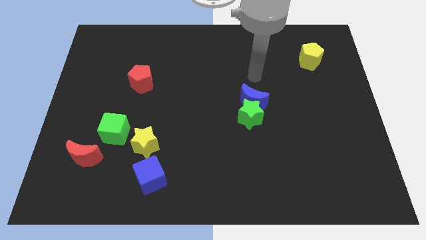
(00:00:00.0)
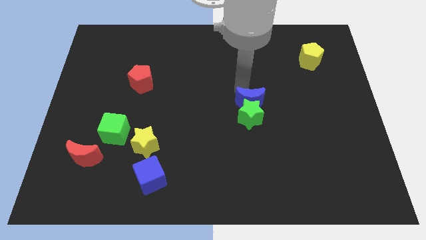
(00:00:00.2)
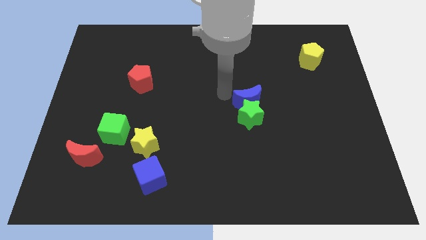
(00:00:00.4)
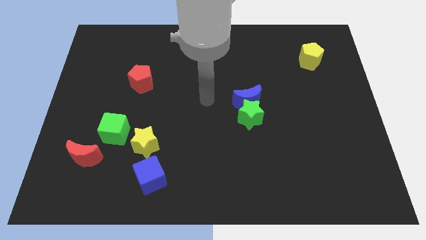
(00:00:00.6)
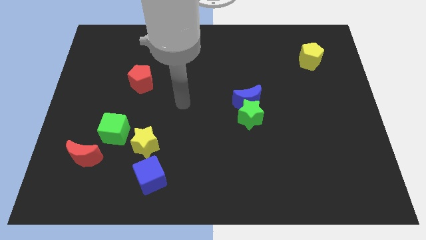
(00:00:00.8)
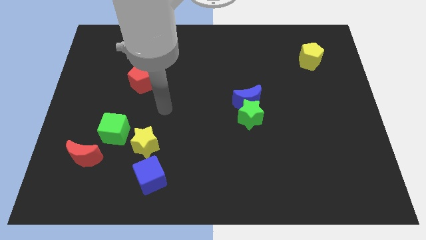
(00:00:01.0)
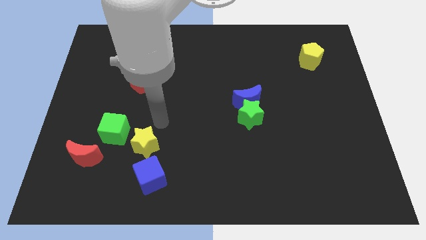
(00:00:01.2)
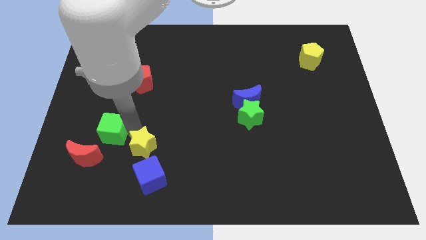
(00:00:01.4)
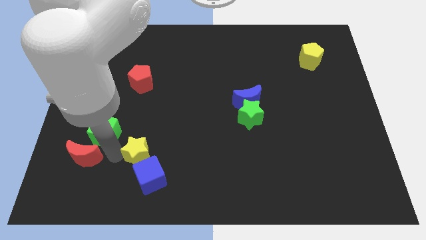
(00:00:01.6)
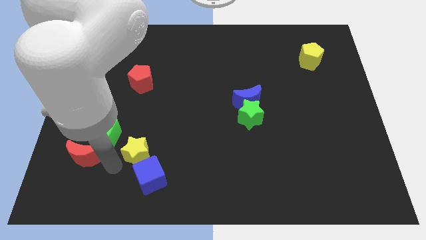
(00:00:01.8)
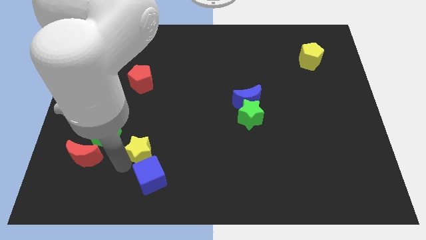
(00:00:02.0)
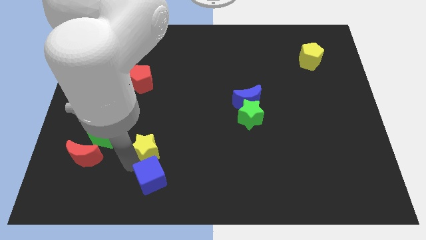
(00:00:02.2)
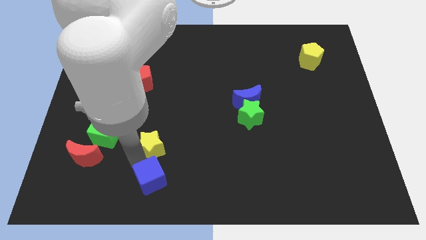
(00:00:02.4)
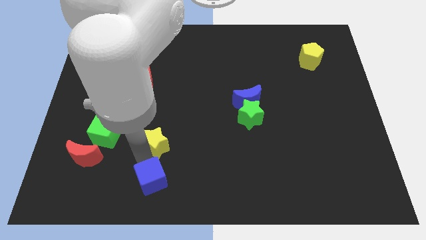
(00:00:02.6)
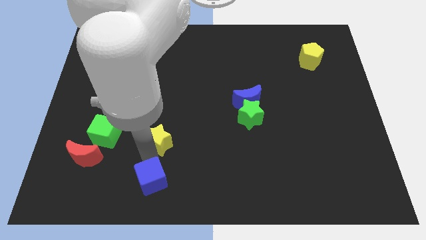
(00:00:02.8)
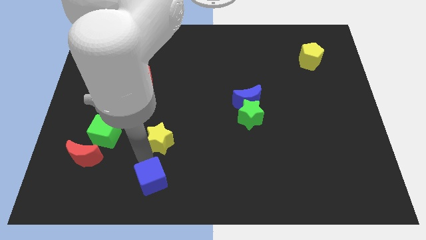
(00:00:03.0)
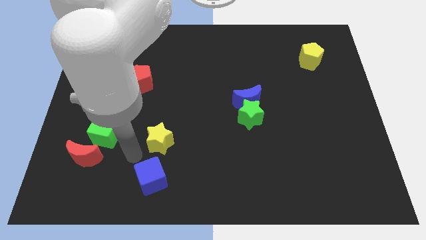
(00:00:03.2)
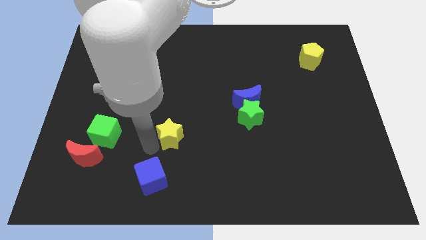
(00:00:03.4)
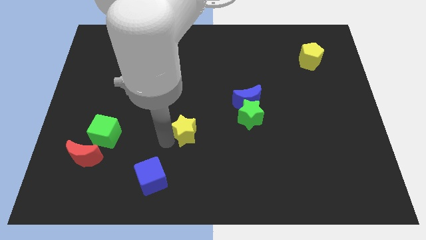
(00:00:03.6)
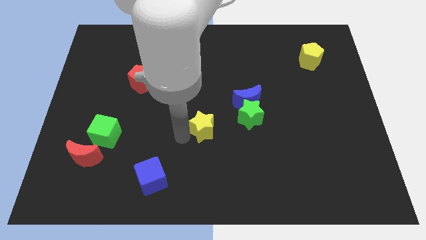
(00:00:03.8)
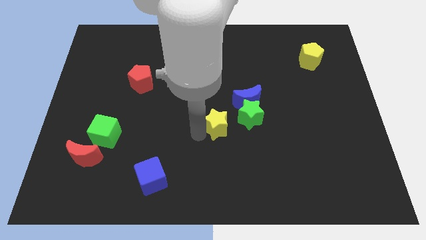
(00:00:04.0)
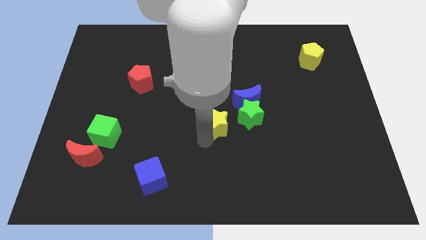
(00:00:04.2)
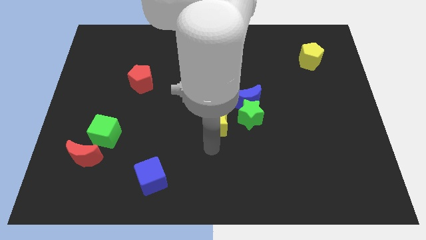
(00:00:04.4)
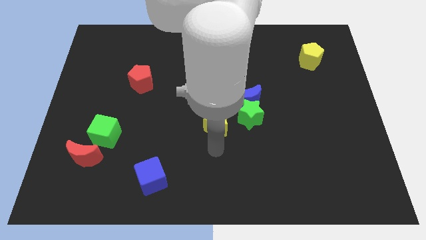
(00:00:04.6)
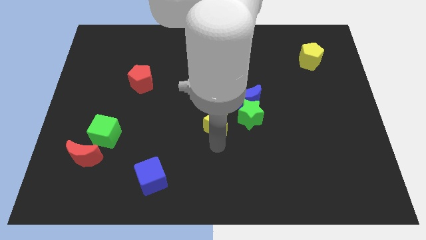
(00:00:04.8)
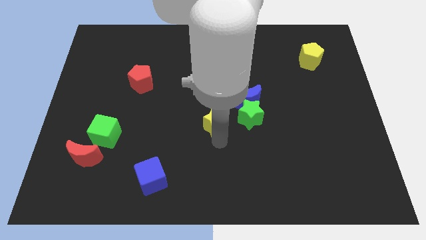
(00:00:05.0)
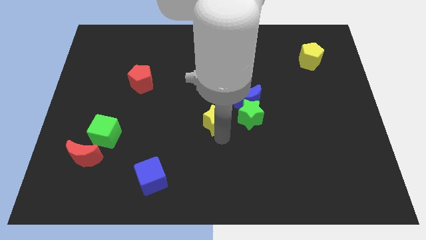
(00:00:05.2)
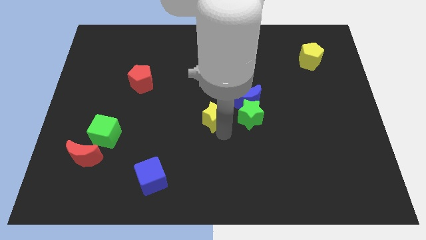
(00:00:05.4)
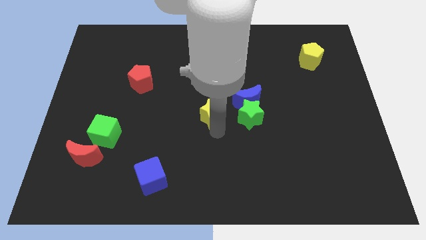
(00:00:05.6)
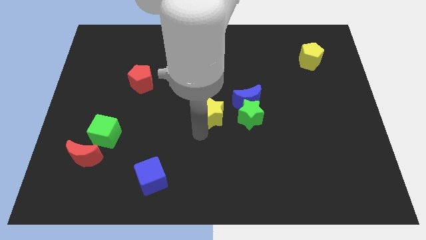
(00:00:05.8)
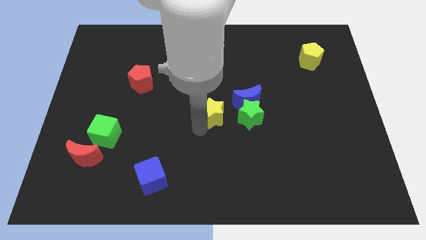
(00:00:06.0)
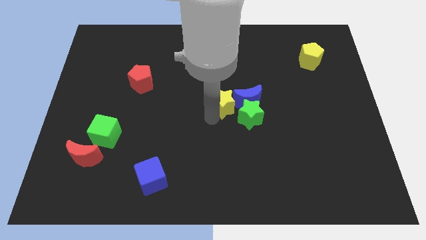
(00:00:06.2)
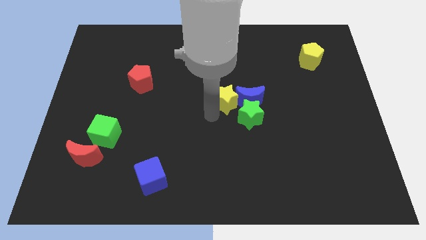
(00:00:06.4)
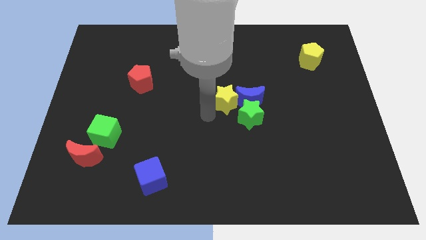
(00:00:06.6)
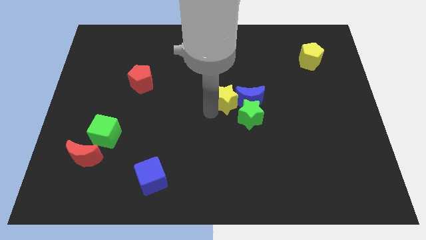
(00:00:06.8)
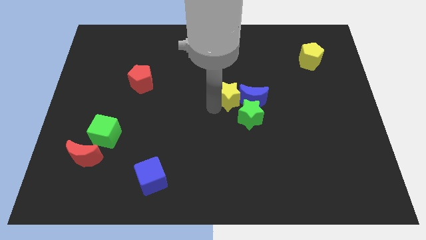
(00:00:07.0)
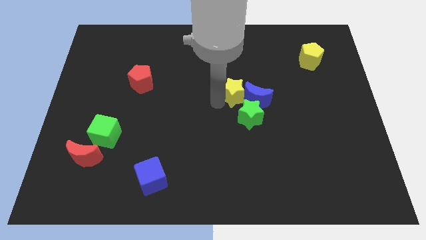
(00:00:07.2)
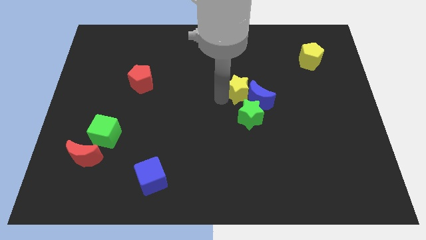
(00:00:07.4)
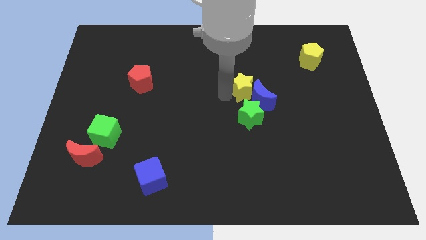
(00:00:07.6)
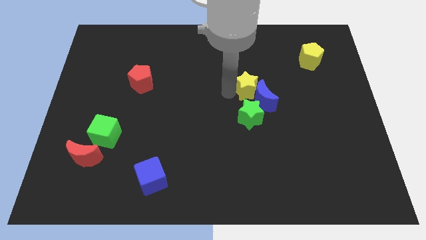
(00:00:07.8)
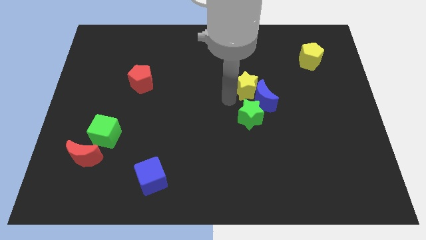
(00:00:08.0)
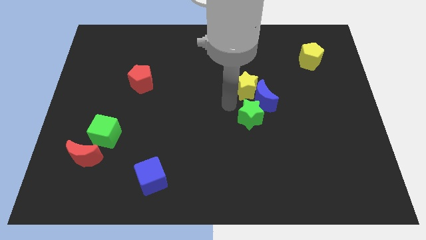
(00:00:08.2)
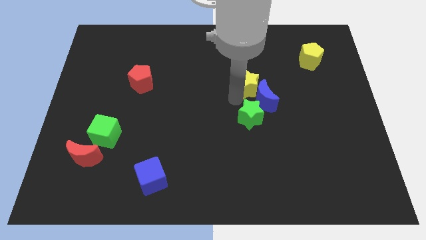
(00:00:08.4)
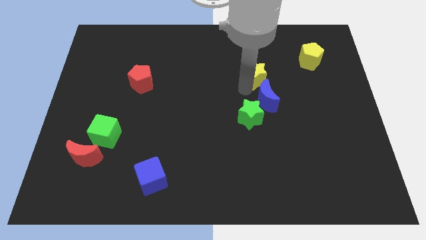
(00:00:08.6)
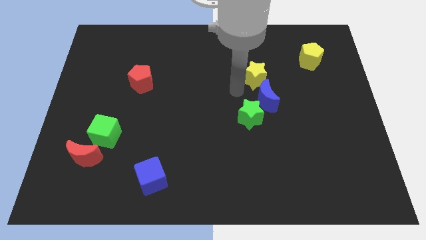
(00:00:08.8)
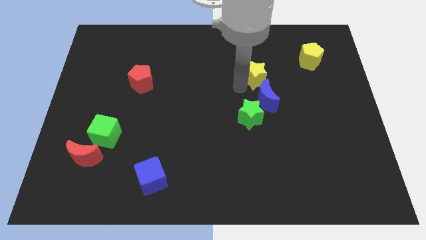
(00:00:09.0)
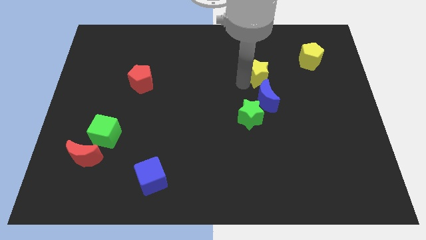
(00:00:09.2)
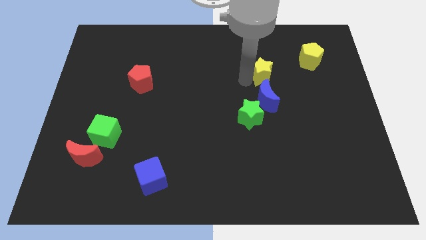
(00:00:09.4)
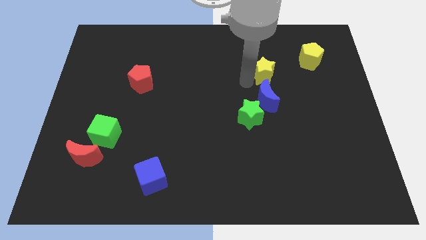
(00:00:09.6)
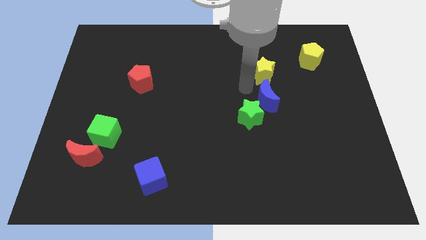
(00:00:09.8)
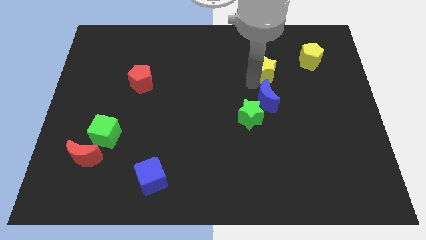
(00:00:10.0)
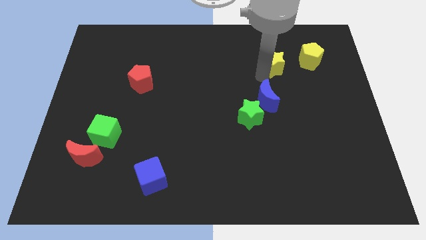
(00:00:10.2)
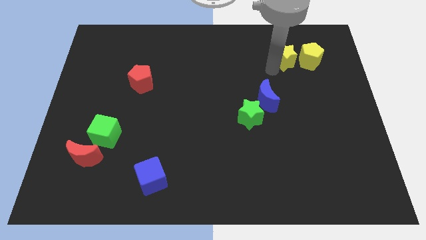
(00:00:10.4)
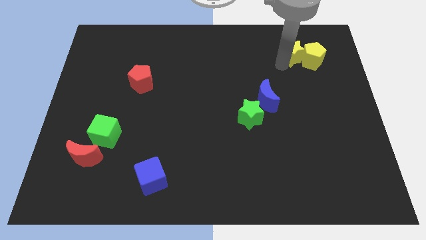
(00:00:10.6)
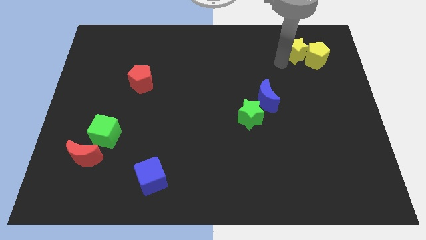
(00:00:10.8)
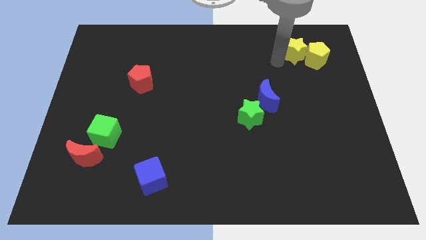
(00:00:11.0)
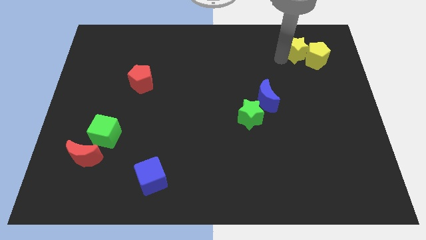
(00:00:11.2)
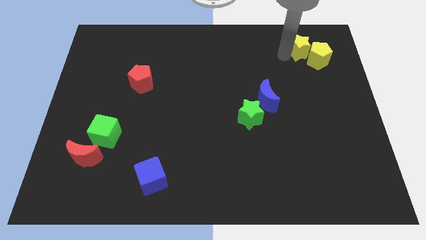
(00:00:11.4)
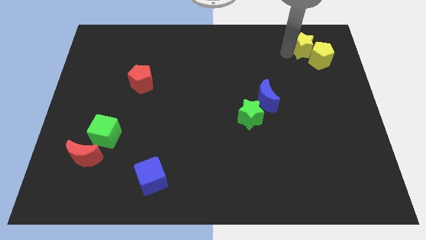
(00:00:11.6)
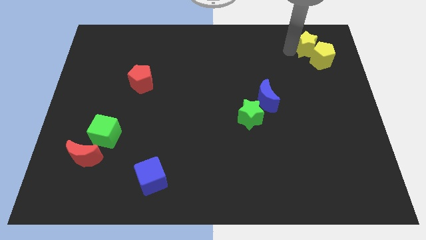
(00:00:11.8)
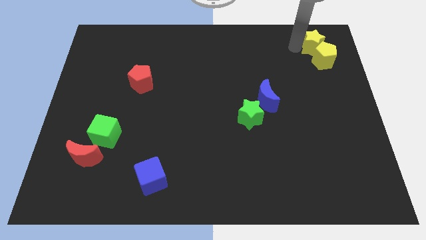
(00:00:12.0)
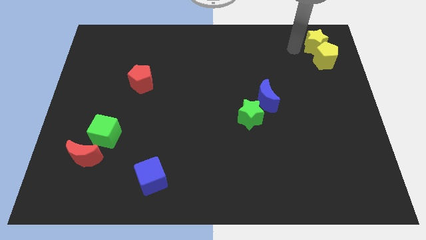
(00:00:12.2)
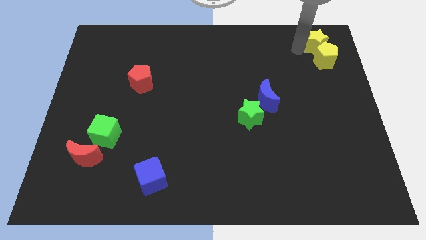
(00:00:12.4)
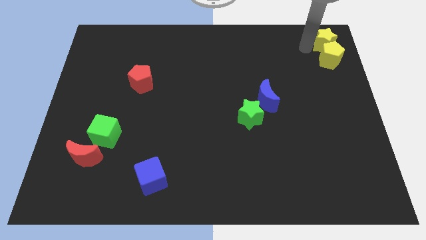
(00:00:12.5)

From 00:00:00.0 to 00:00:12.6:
slide the yellow star to the upper right corner
